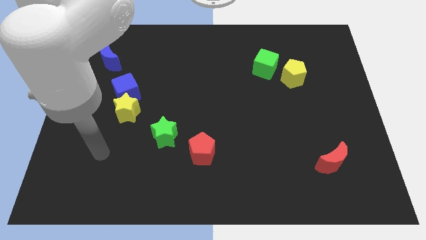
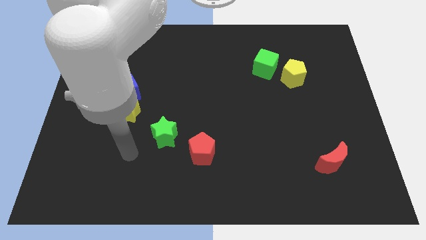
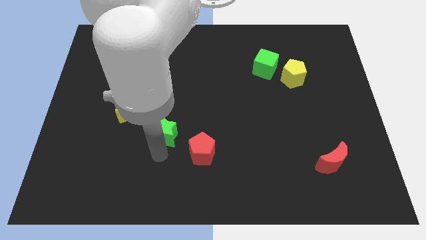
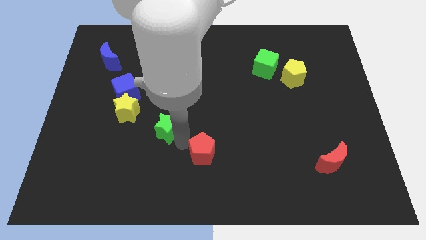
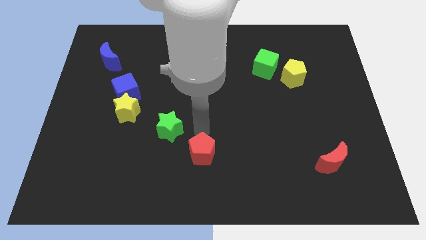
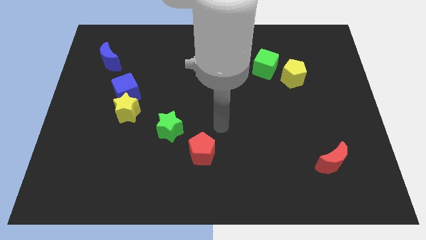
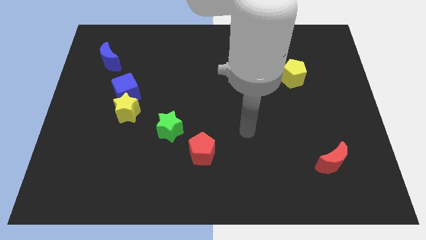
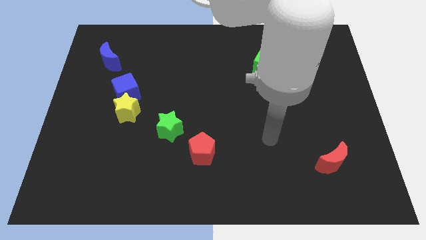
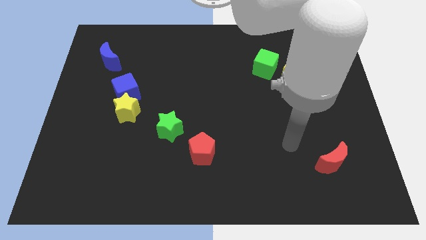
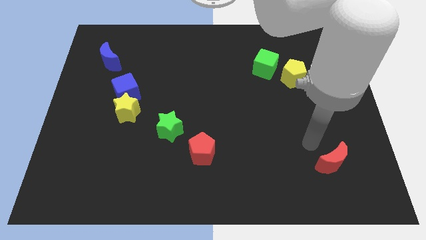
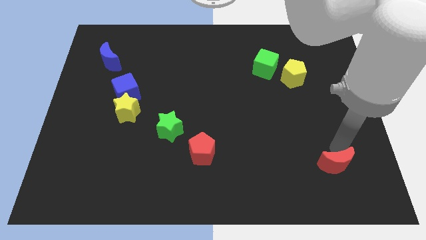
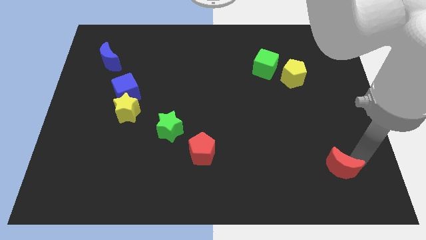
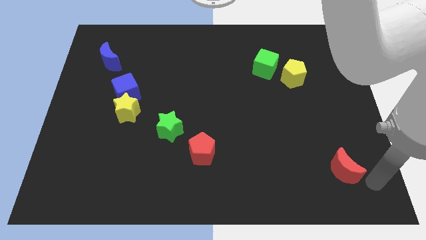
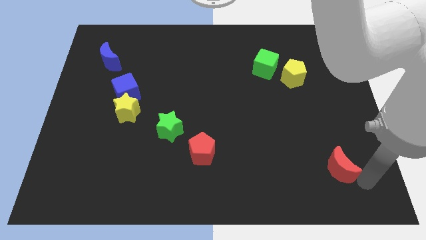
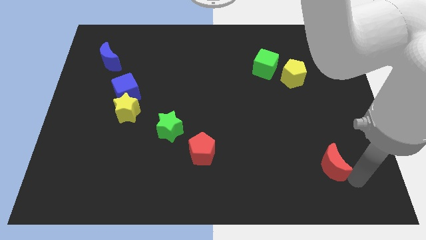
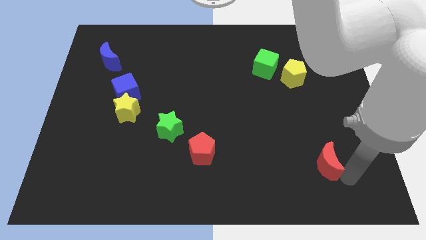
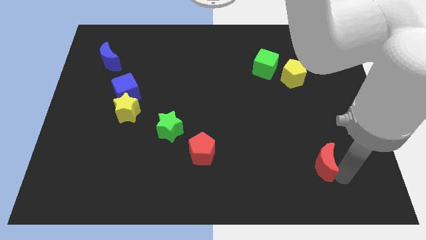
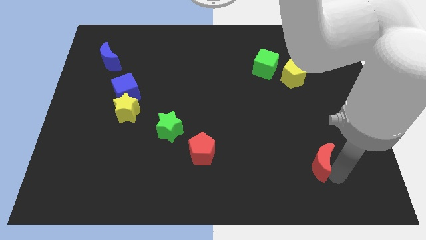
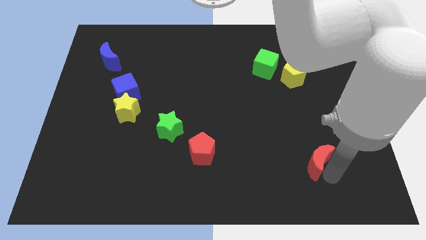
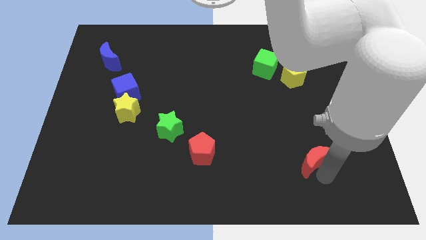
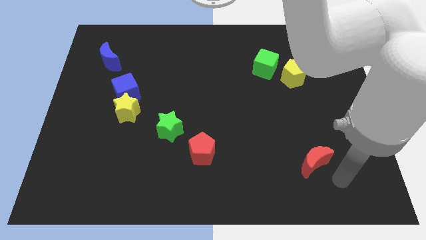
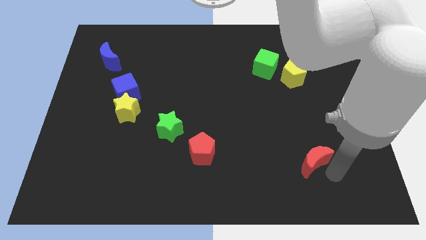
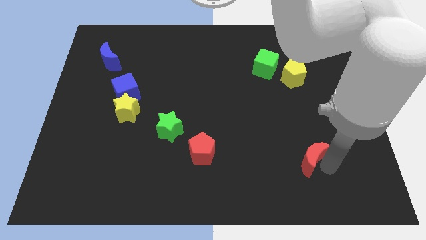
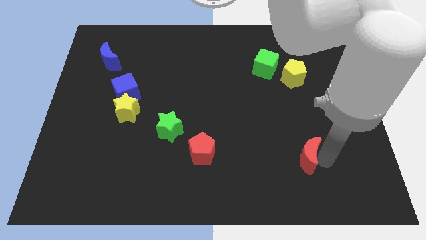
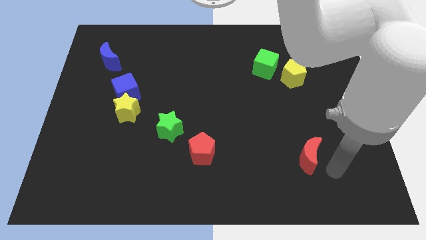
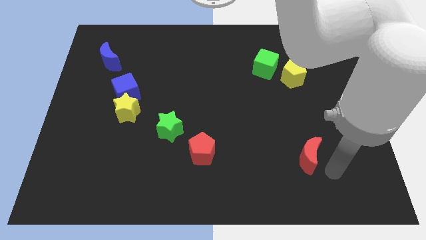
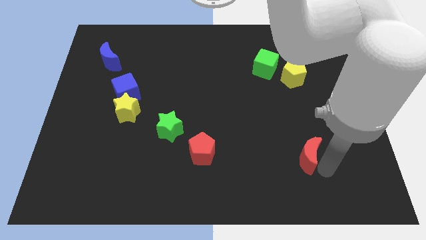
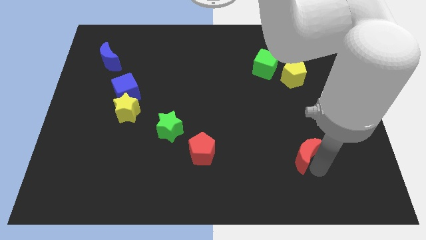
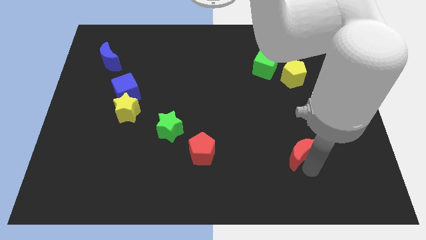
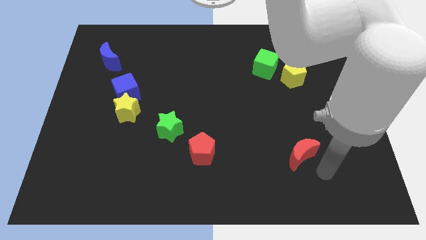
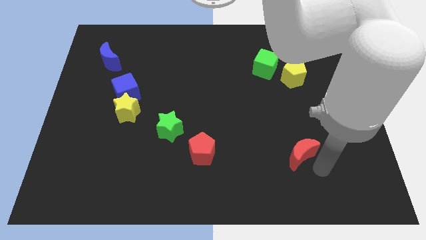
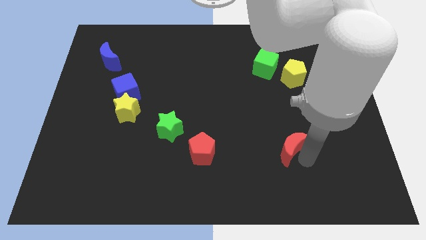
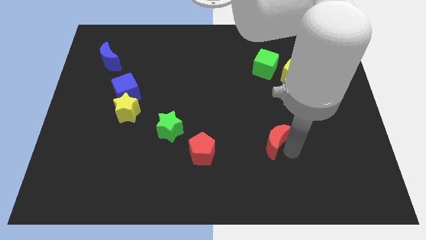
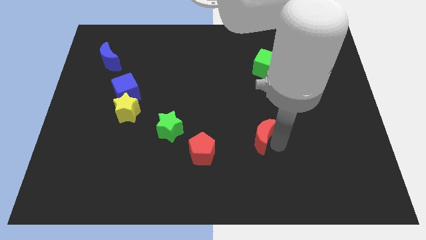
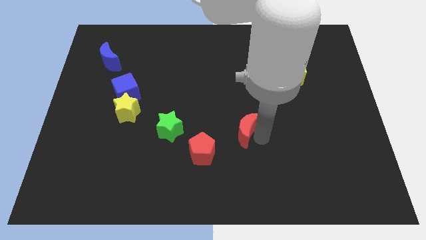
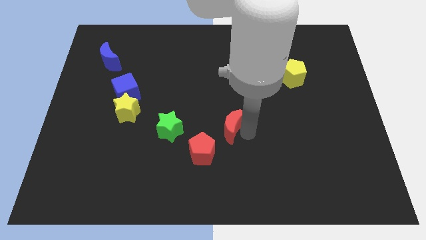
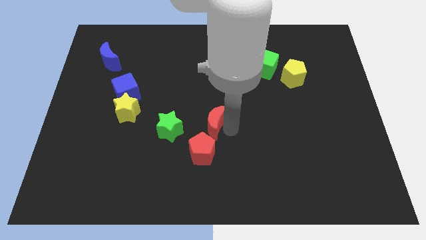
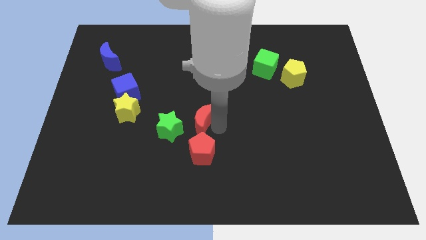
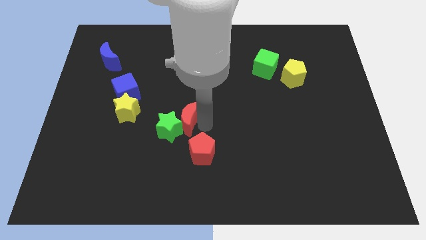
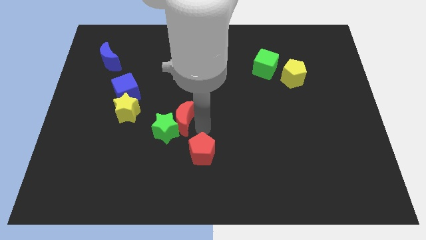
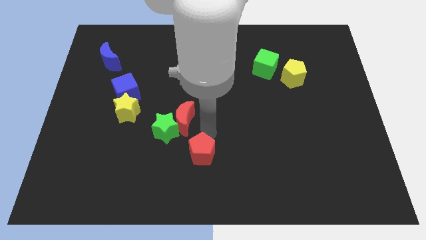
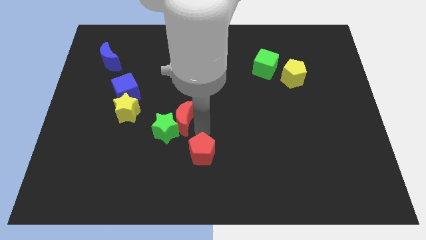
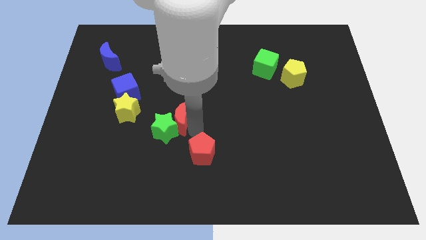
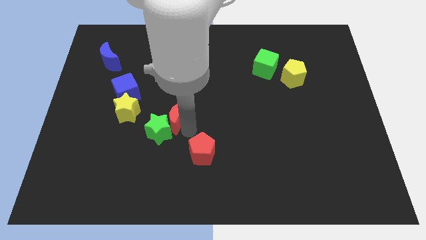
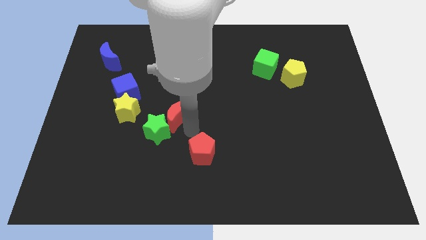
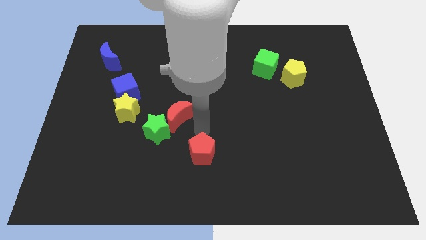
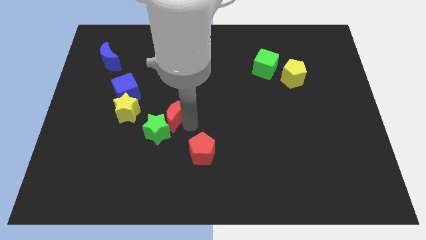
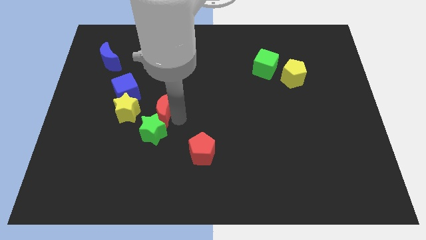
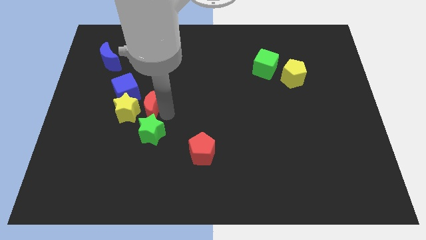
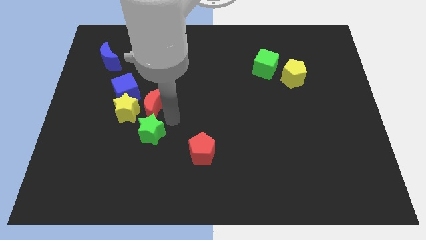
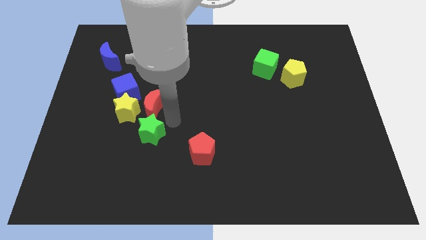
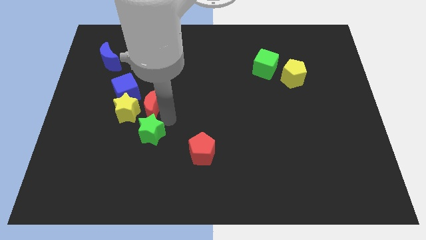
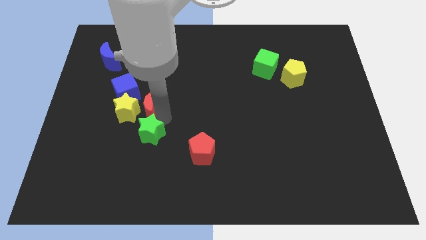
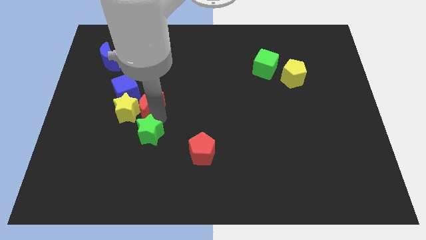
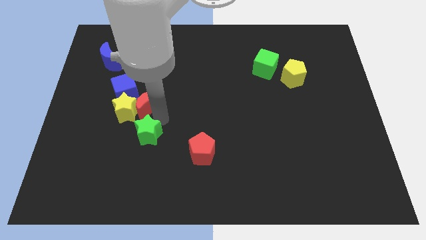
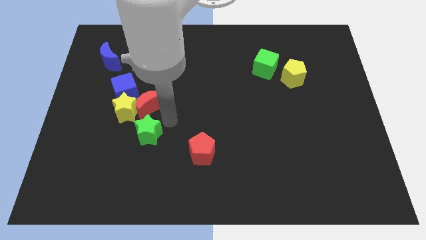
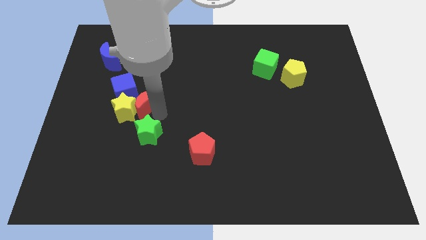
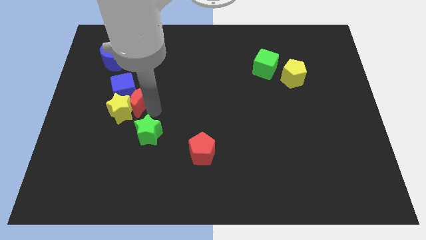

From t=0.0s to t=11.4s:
move the red moon to the blue cube

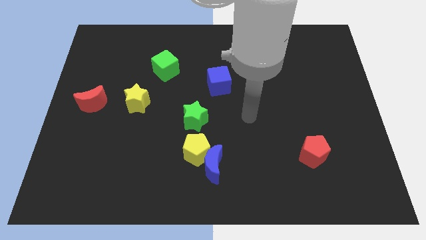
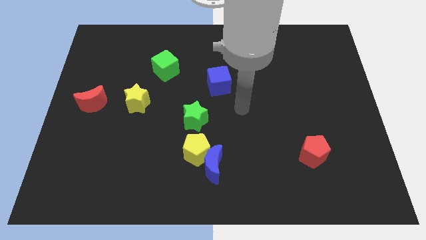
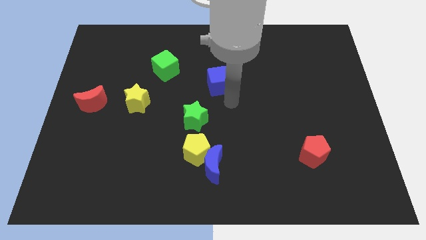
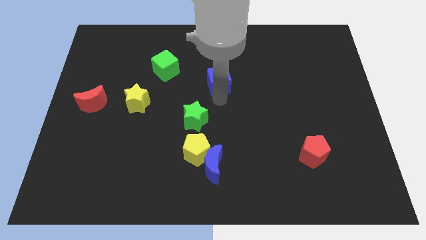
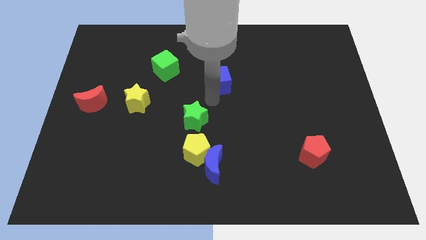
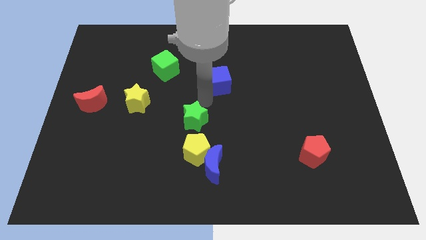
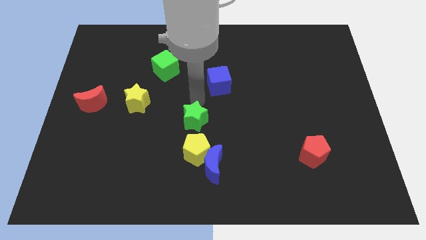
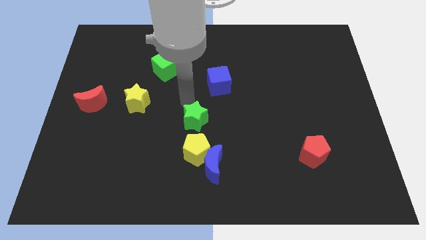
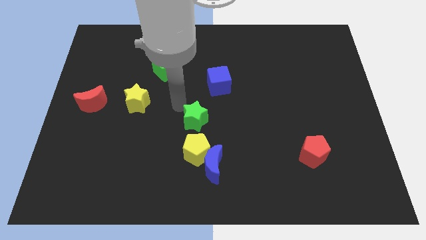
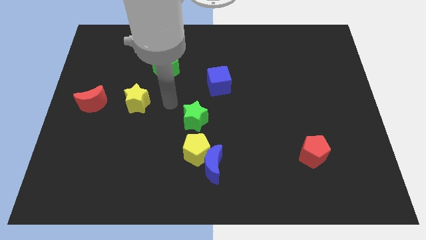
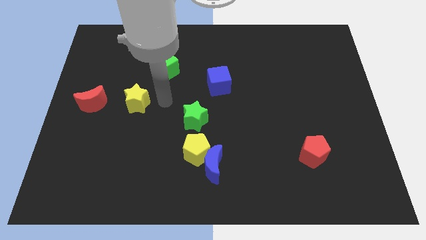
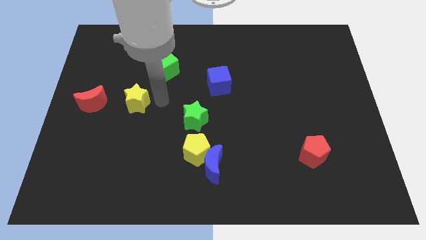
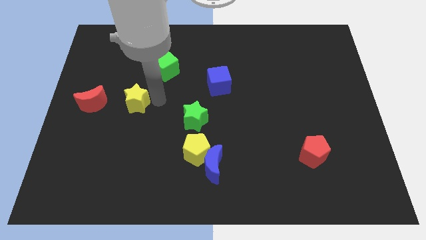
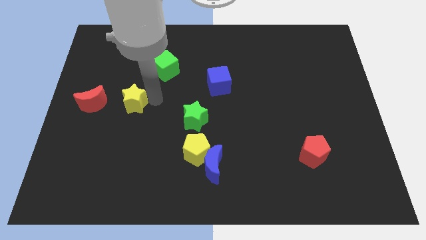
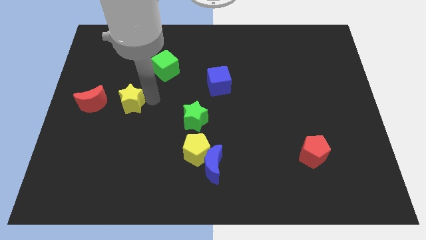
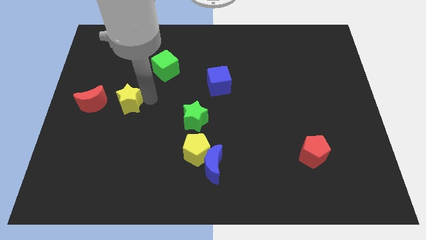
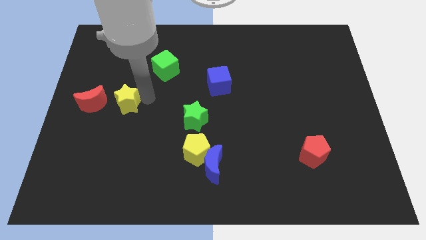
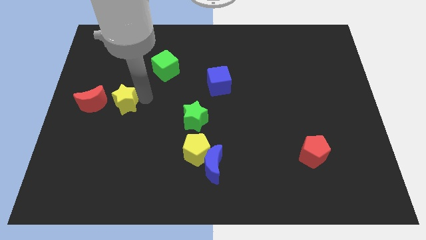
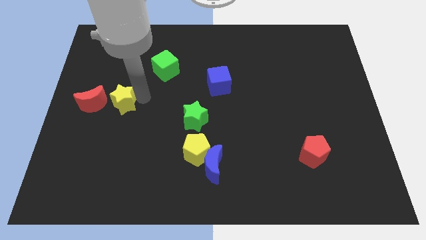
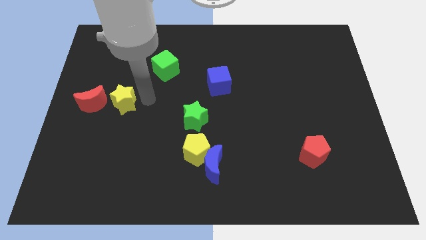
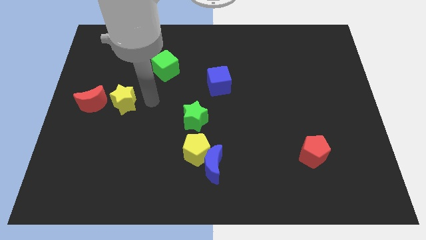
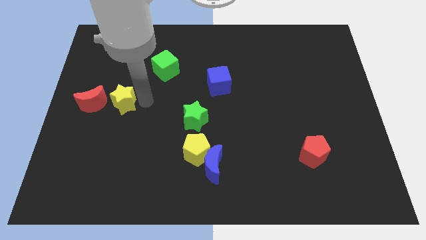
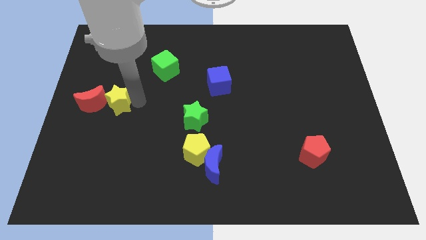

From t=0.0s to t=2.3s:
slide the yellow star close to the red moon
